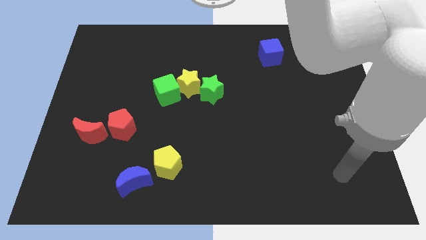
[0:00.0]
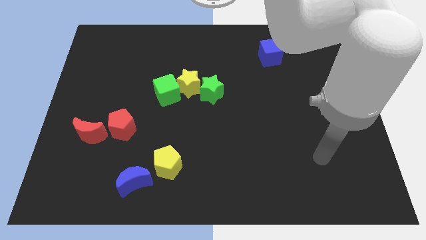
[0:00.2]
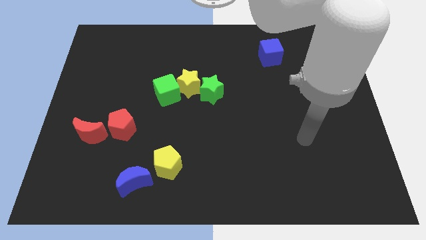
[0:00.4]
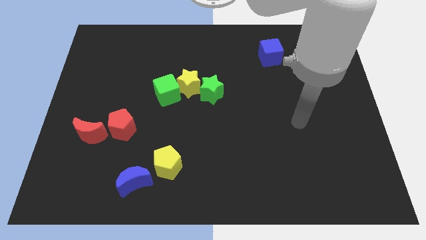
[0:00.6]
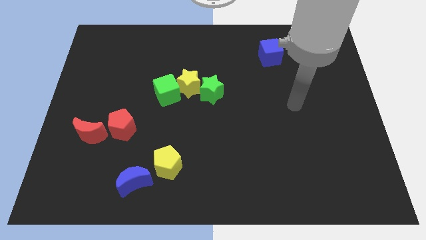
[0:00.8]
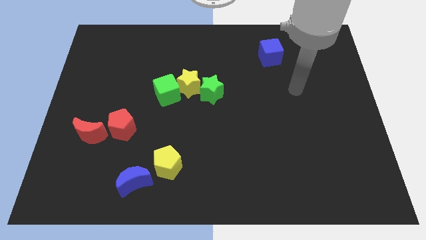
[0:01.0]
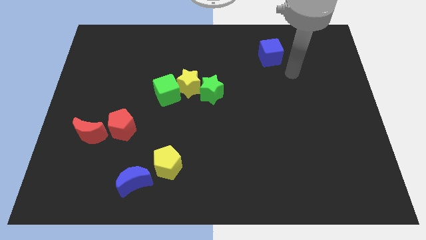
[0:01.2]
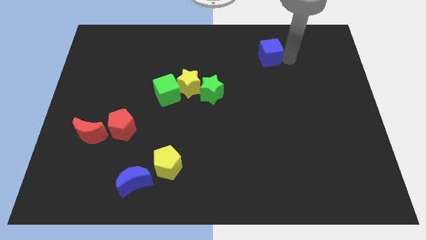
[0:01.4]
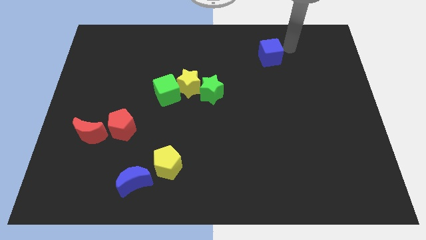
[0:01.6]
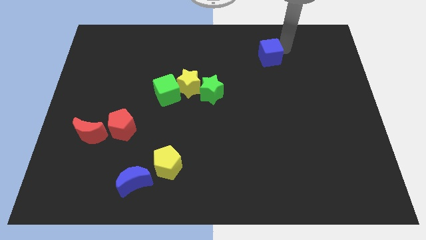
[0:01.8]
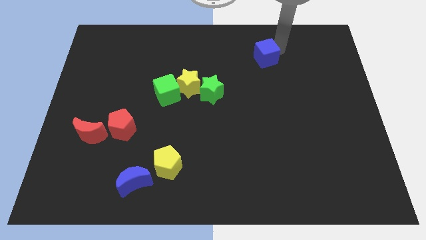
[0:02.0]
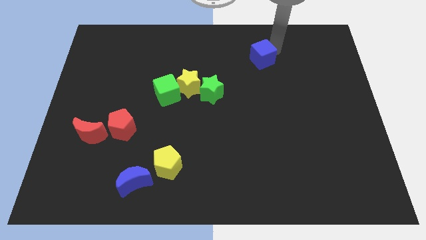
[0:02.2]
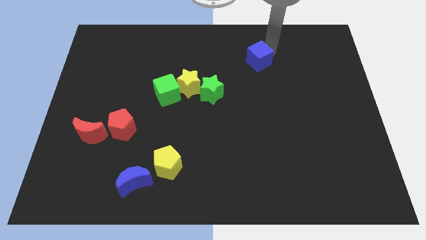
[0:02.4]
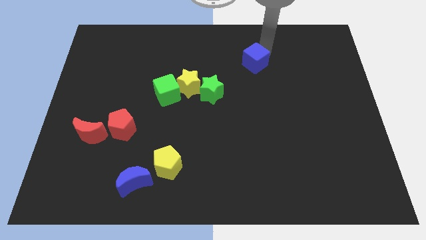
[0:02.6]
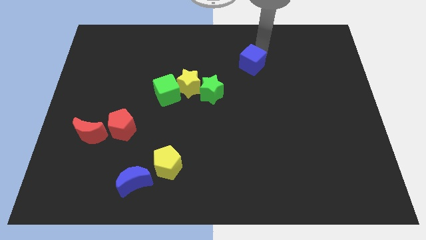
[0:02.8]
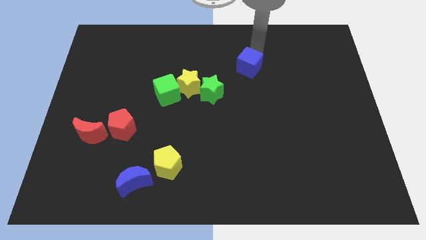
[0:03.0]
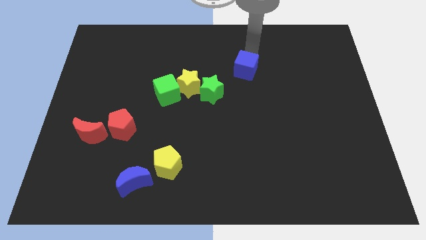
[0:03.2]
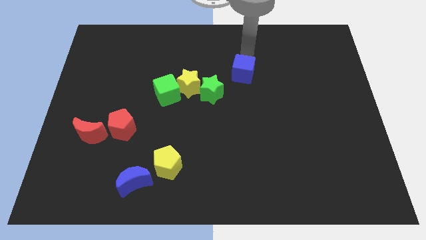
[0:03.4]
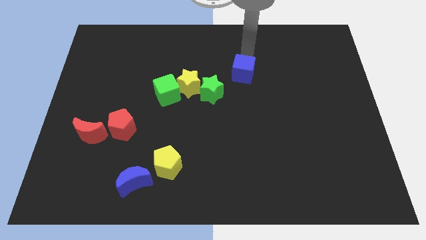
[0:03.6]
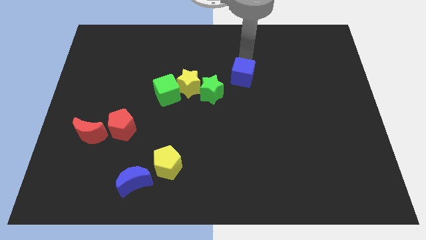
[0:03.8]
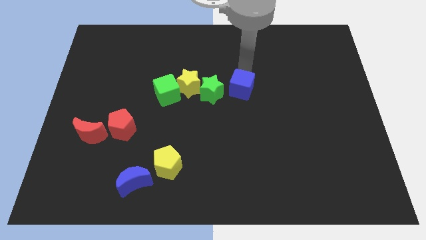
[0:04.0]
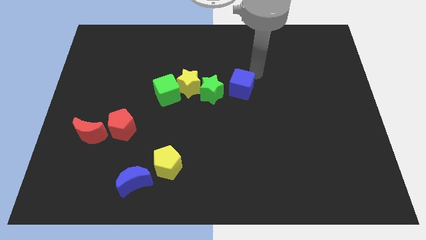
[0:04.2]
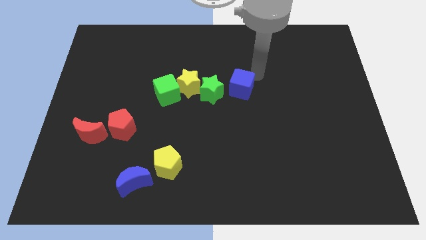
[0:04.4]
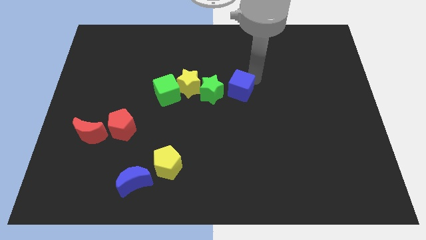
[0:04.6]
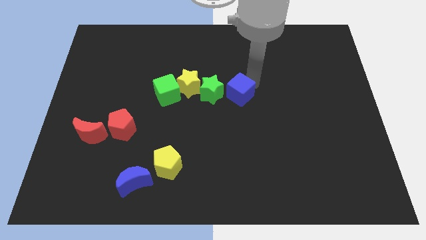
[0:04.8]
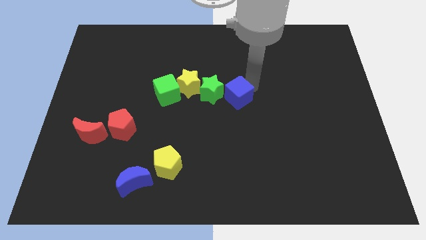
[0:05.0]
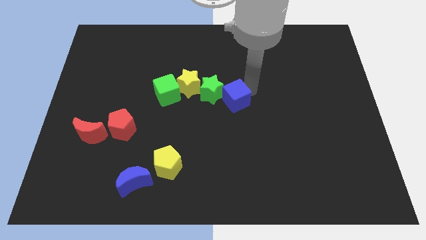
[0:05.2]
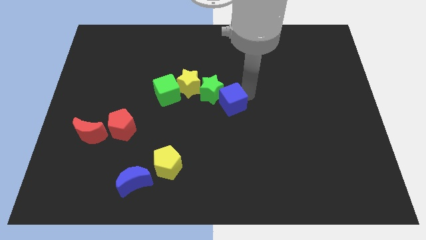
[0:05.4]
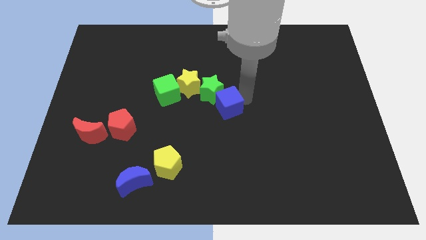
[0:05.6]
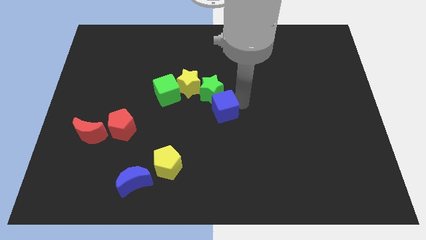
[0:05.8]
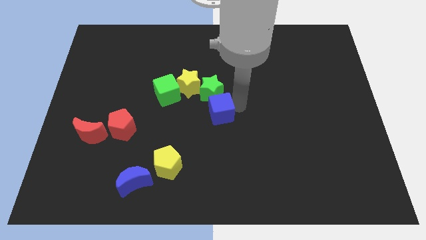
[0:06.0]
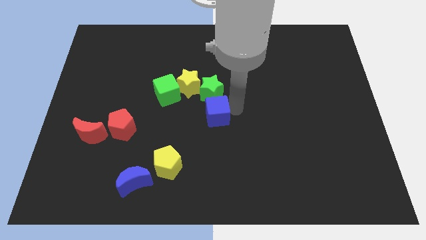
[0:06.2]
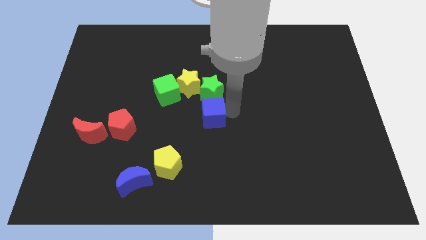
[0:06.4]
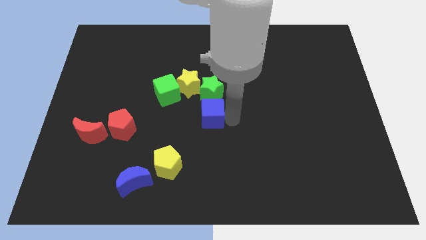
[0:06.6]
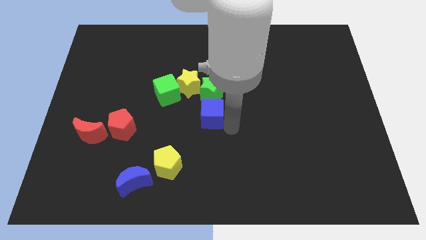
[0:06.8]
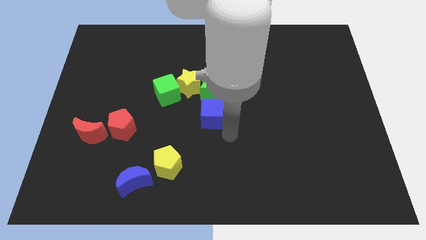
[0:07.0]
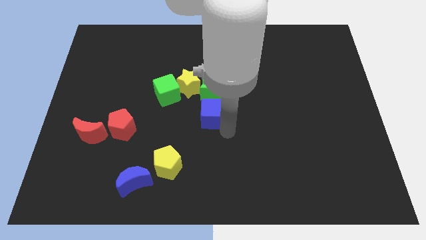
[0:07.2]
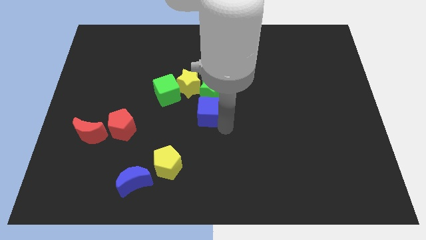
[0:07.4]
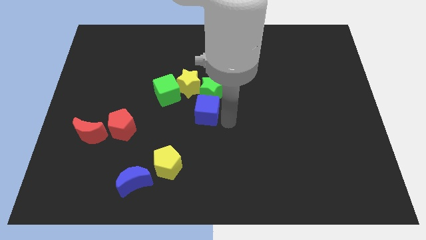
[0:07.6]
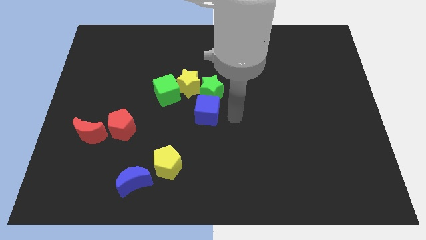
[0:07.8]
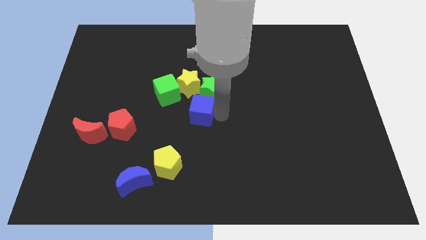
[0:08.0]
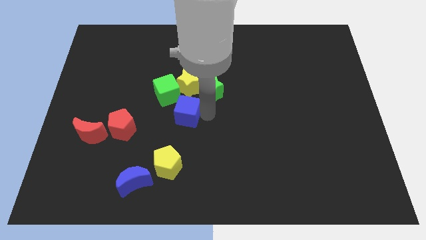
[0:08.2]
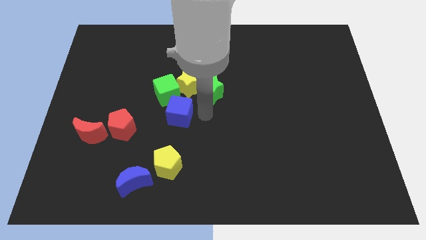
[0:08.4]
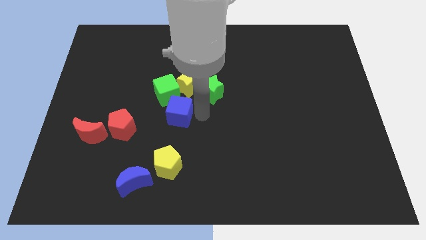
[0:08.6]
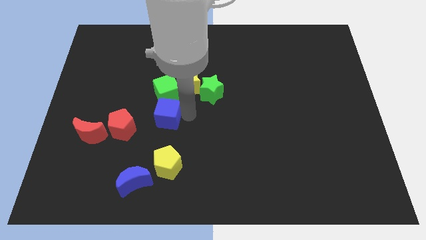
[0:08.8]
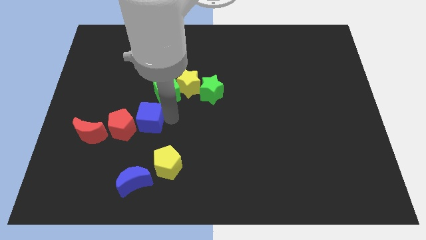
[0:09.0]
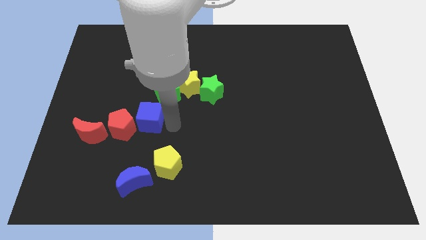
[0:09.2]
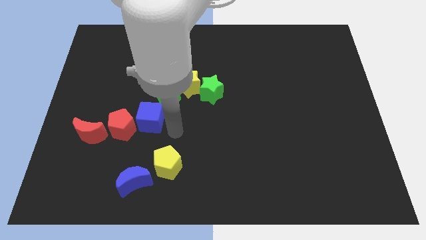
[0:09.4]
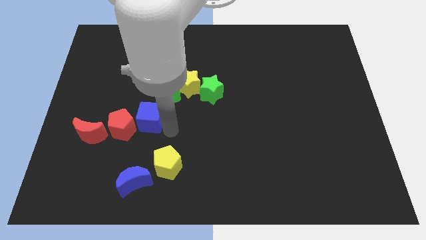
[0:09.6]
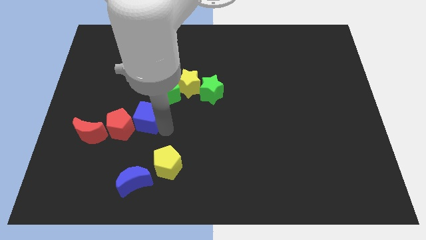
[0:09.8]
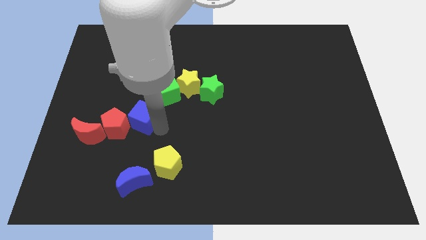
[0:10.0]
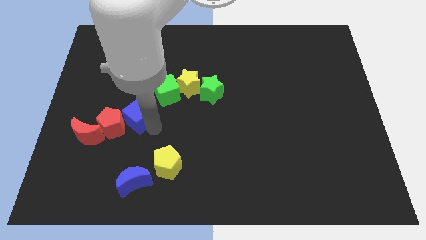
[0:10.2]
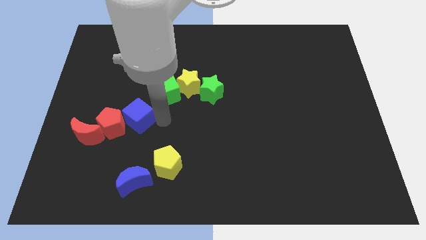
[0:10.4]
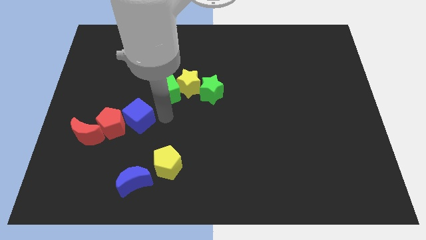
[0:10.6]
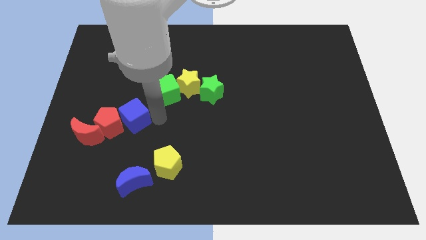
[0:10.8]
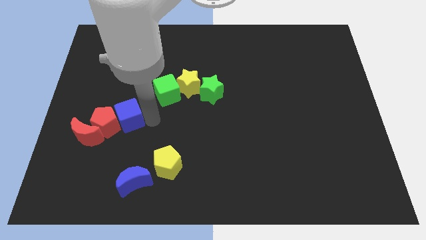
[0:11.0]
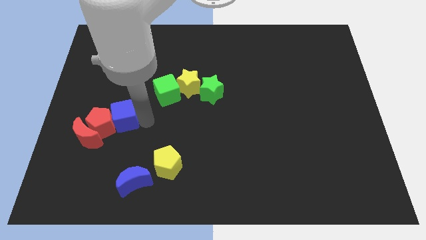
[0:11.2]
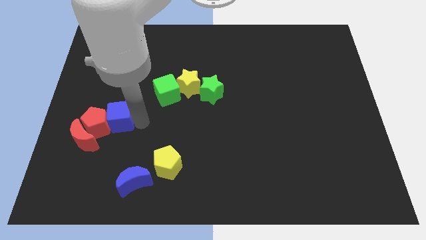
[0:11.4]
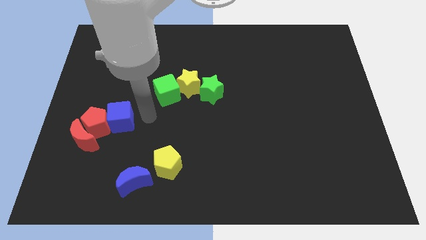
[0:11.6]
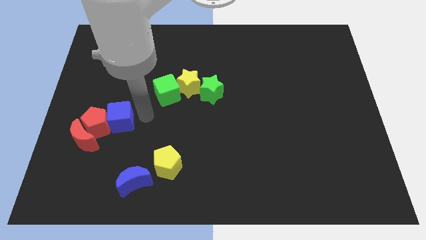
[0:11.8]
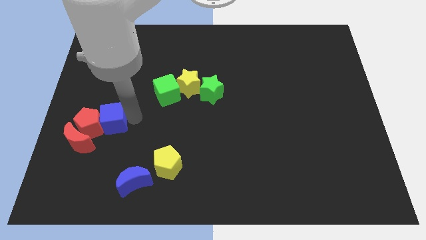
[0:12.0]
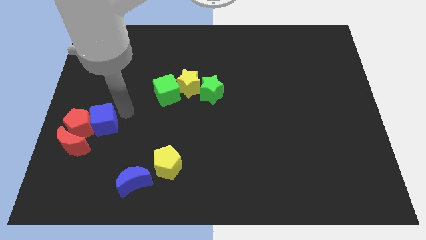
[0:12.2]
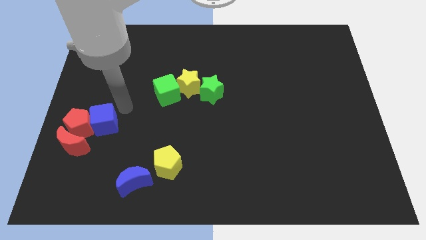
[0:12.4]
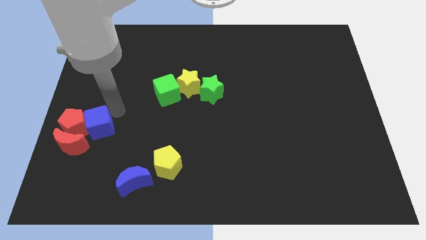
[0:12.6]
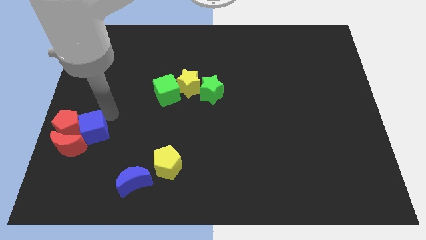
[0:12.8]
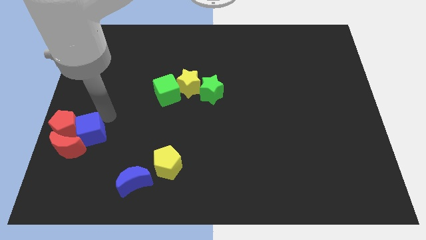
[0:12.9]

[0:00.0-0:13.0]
put the blue cube close to the red moon

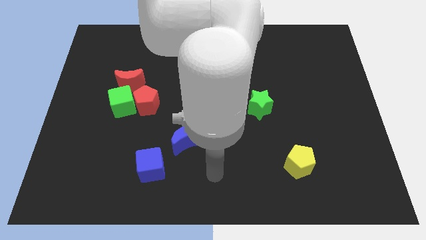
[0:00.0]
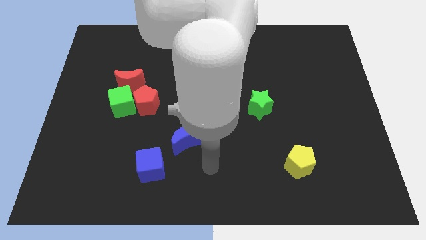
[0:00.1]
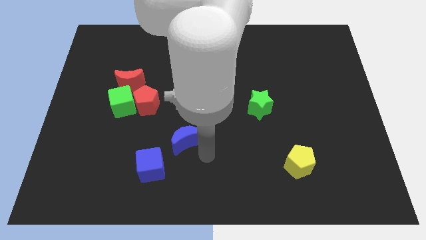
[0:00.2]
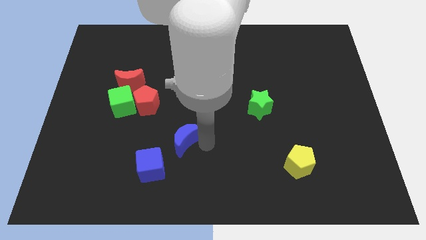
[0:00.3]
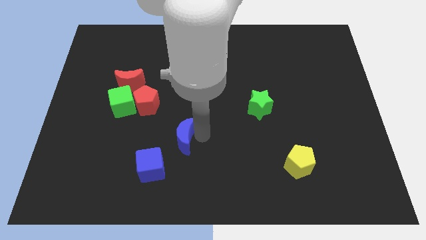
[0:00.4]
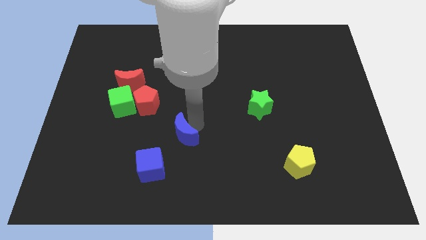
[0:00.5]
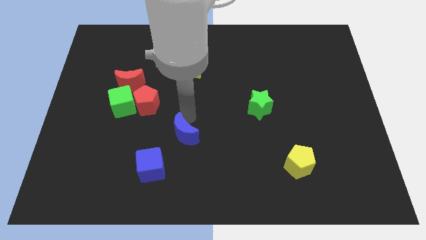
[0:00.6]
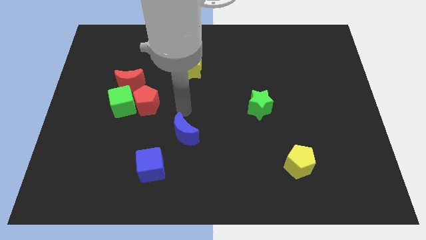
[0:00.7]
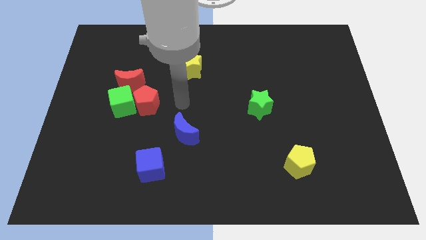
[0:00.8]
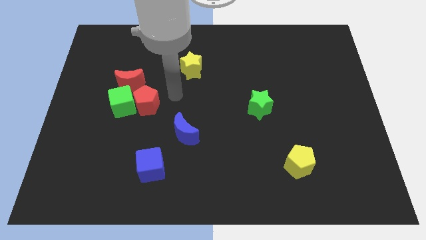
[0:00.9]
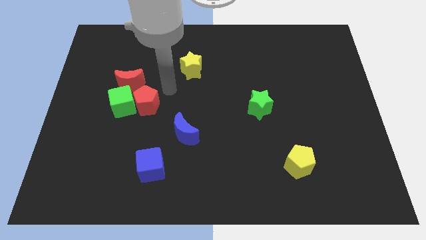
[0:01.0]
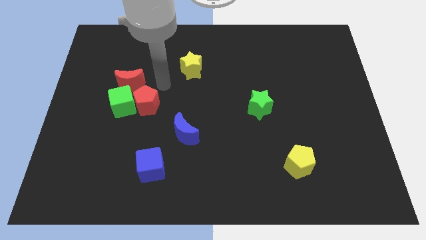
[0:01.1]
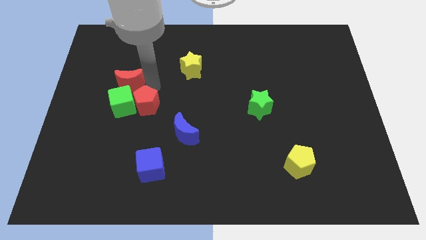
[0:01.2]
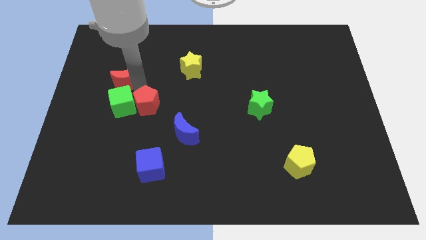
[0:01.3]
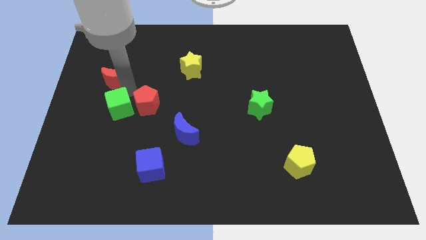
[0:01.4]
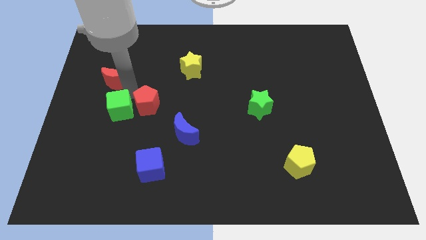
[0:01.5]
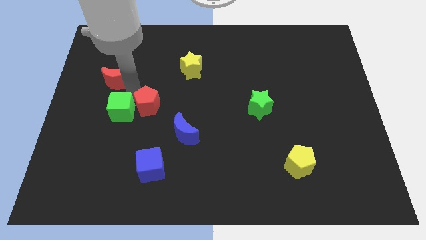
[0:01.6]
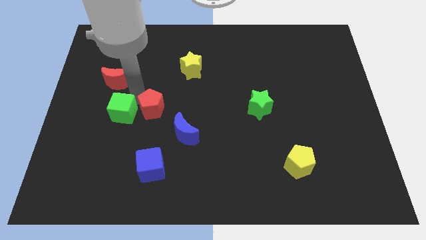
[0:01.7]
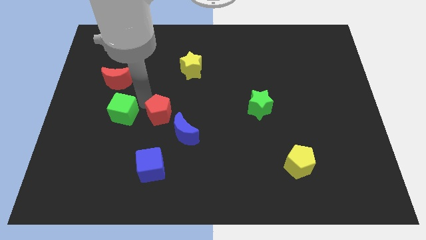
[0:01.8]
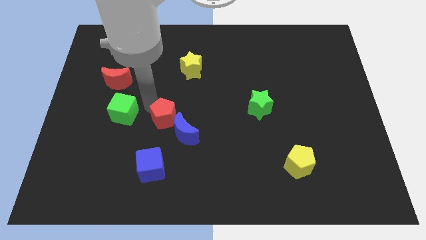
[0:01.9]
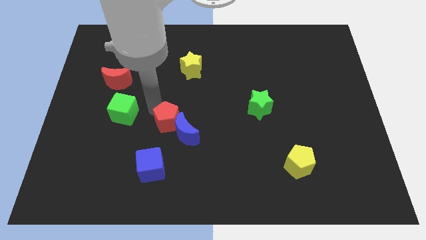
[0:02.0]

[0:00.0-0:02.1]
push the red pentagon towards the blue moon
